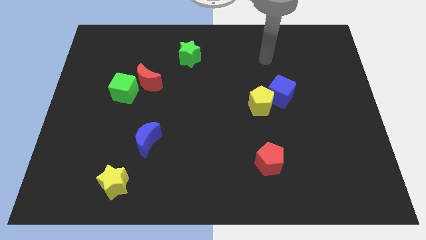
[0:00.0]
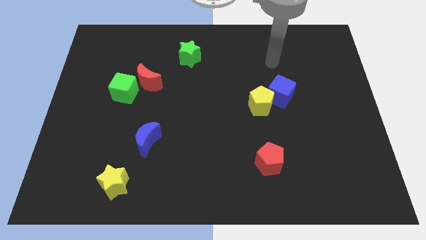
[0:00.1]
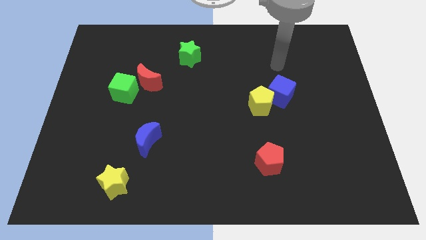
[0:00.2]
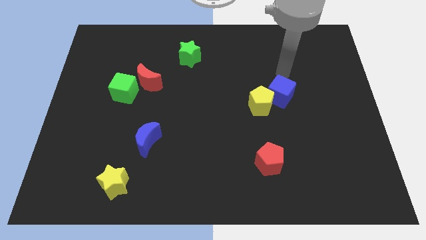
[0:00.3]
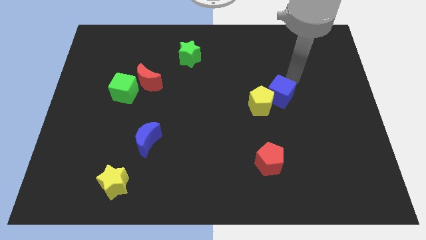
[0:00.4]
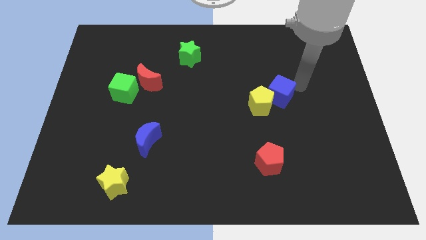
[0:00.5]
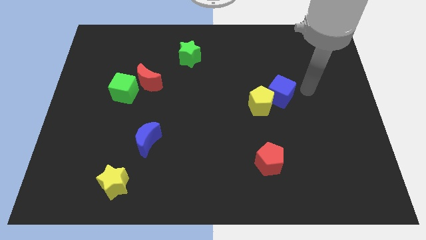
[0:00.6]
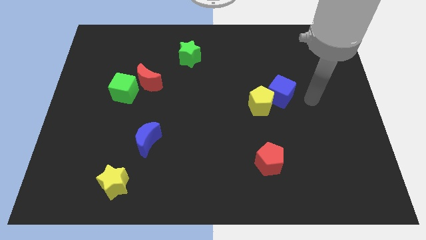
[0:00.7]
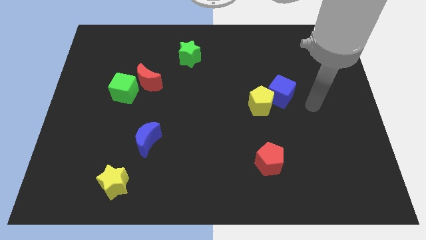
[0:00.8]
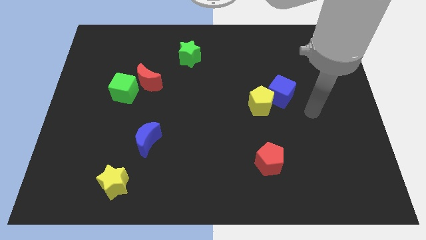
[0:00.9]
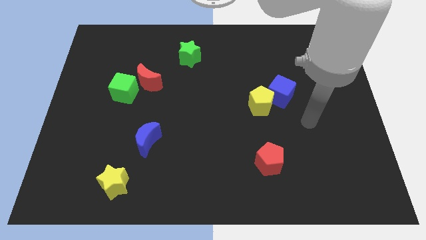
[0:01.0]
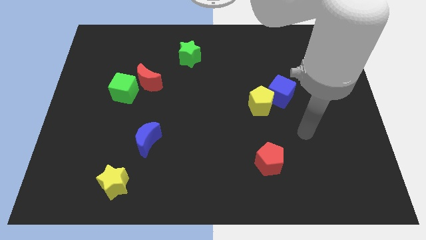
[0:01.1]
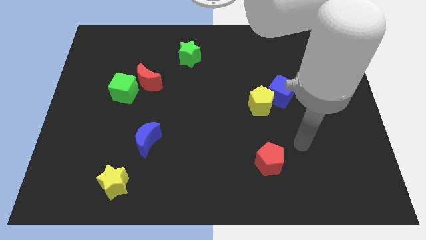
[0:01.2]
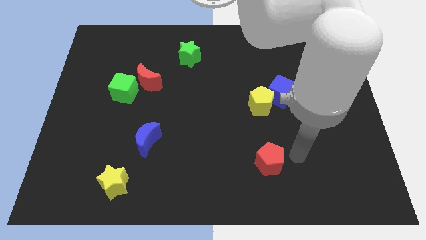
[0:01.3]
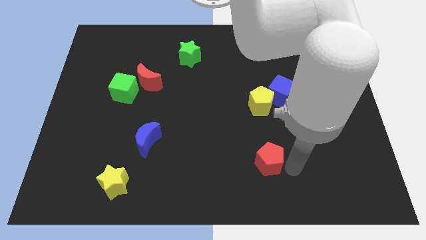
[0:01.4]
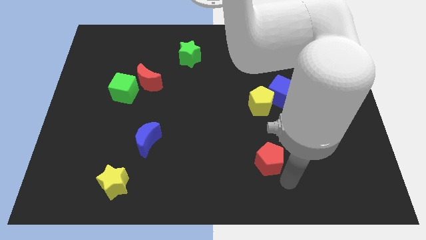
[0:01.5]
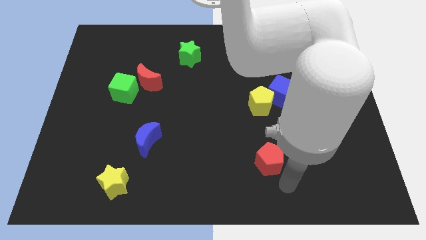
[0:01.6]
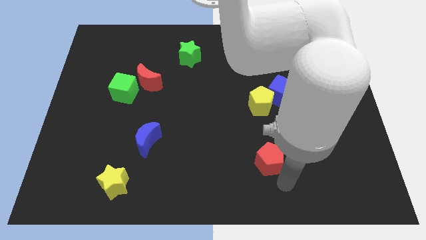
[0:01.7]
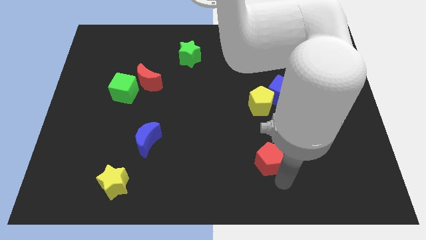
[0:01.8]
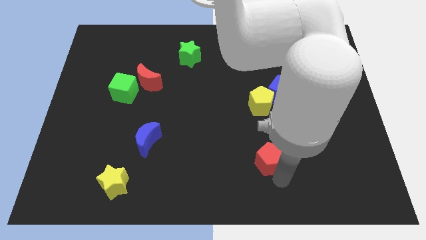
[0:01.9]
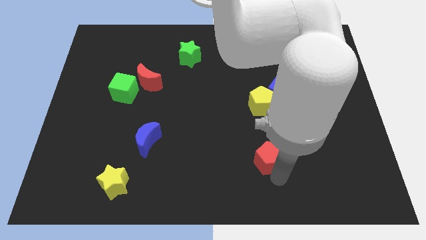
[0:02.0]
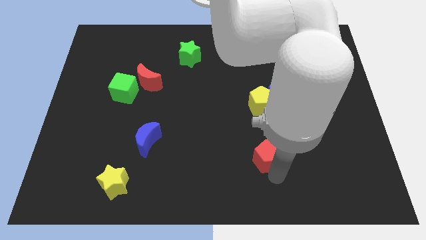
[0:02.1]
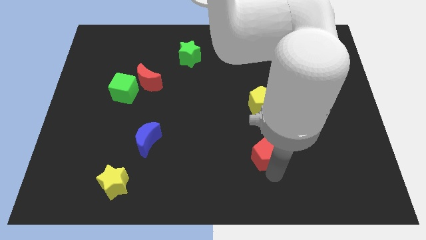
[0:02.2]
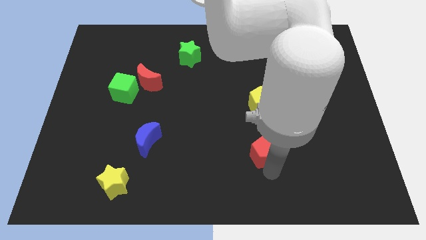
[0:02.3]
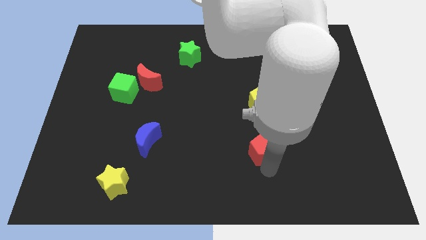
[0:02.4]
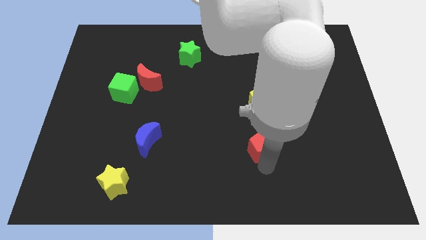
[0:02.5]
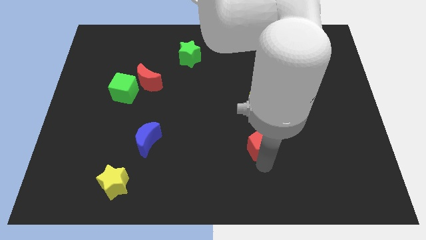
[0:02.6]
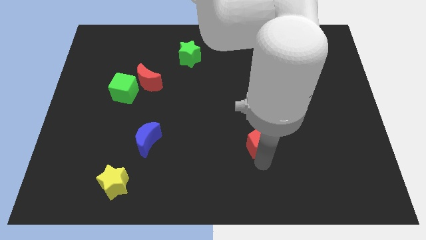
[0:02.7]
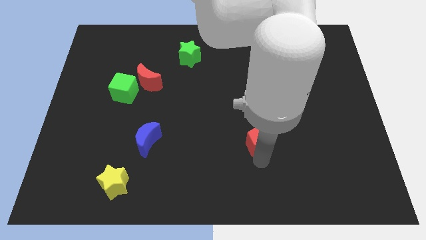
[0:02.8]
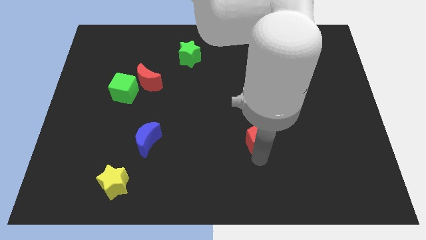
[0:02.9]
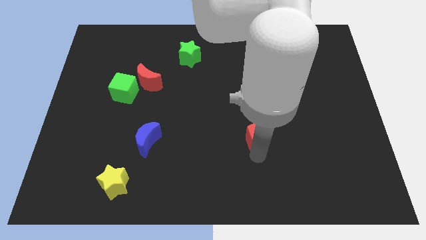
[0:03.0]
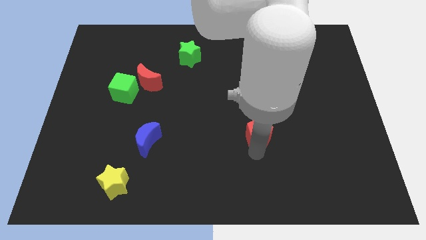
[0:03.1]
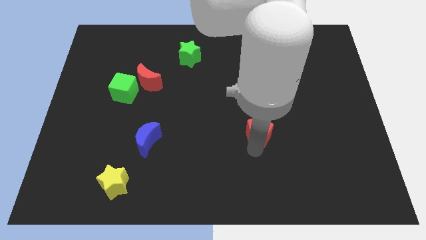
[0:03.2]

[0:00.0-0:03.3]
slightly slide the red pentagon up

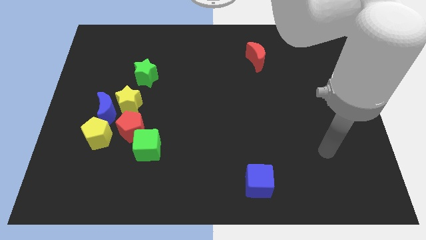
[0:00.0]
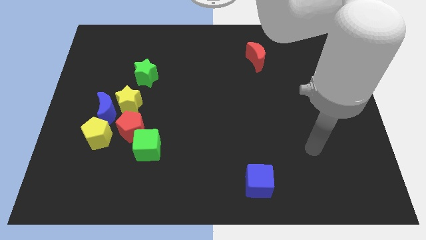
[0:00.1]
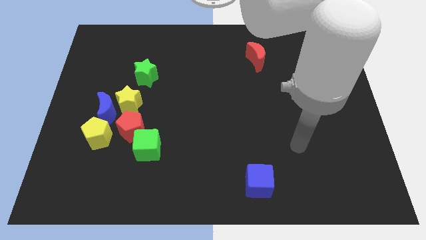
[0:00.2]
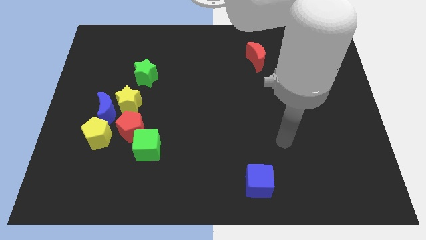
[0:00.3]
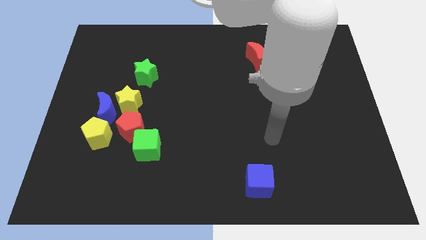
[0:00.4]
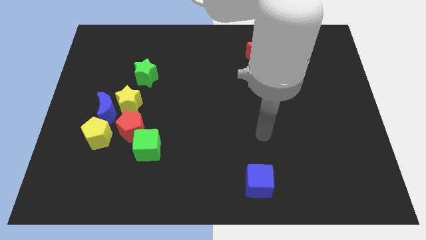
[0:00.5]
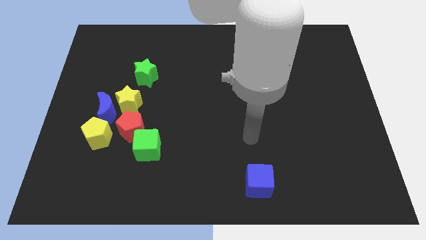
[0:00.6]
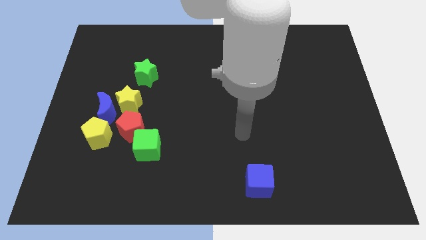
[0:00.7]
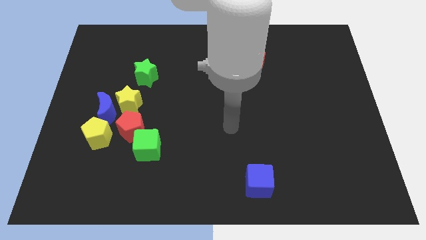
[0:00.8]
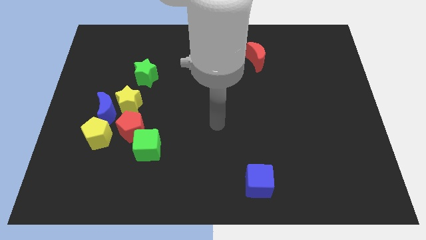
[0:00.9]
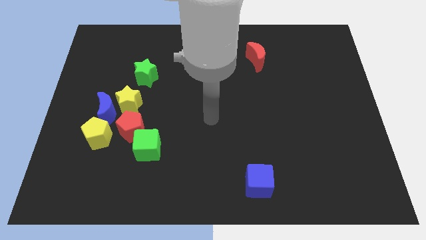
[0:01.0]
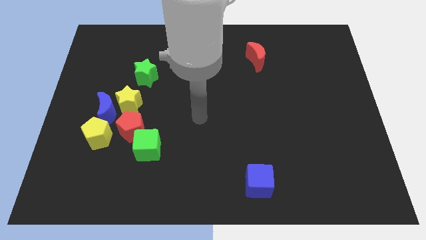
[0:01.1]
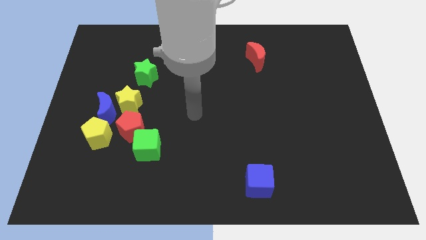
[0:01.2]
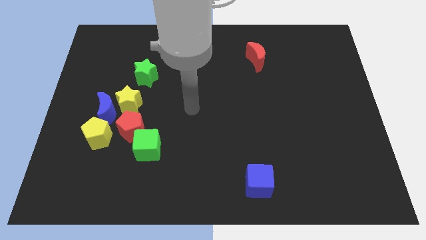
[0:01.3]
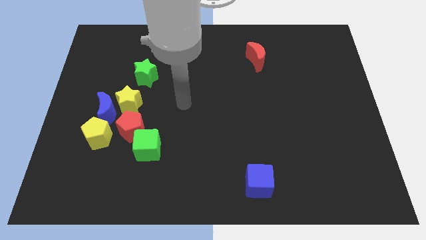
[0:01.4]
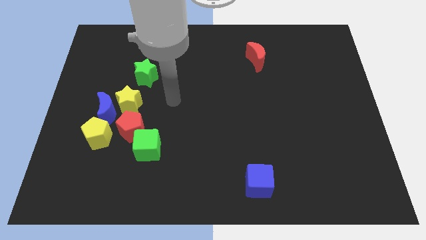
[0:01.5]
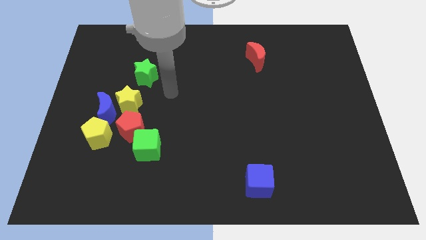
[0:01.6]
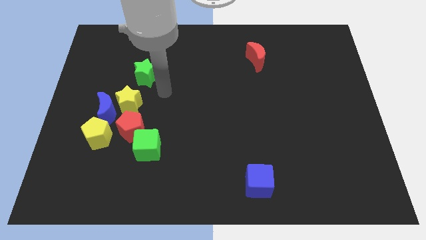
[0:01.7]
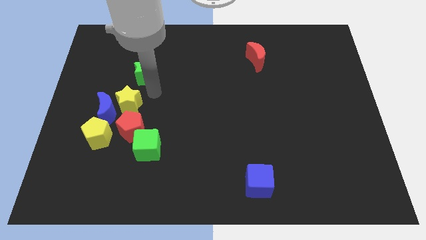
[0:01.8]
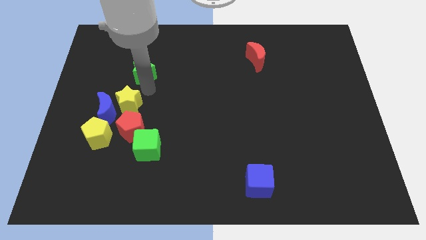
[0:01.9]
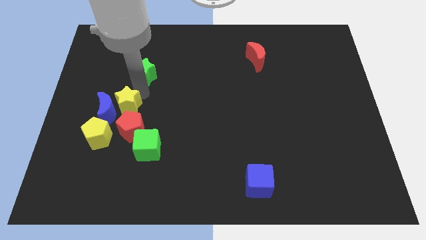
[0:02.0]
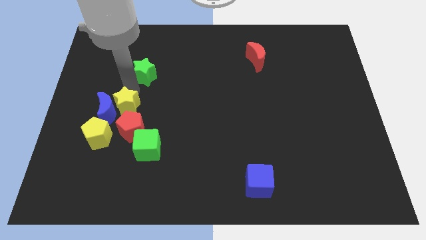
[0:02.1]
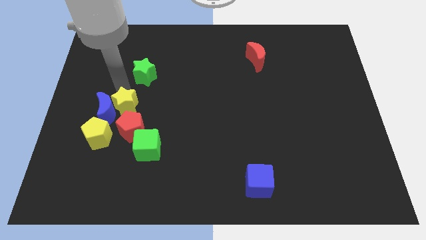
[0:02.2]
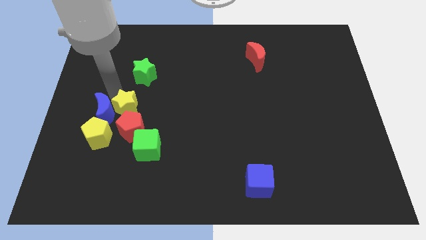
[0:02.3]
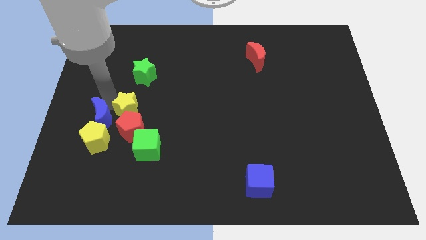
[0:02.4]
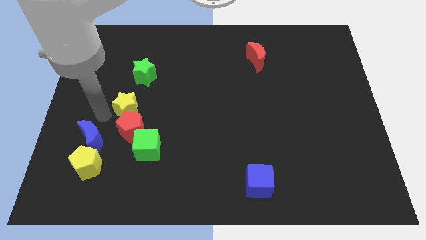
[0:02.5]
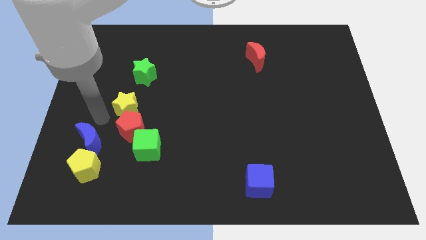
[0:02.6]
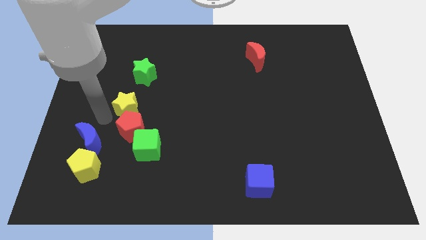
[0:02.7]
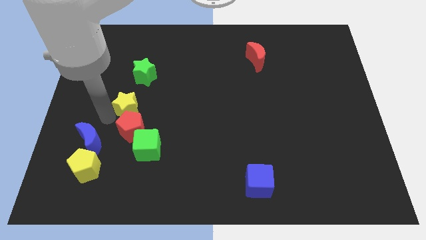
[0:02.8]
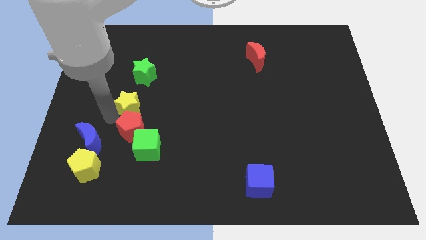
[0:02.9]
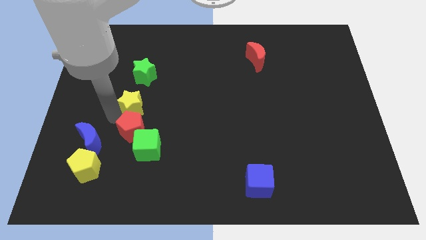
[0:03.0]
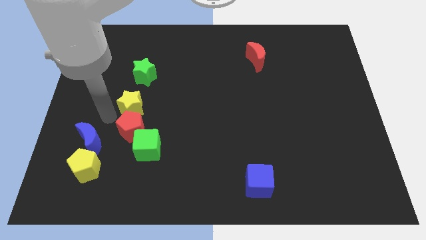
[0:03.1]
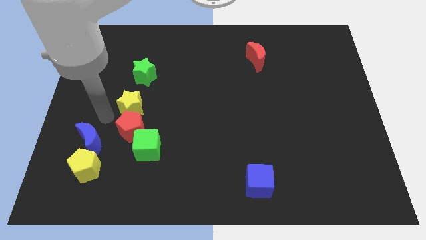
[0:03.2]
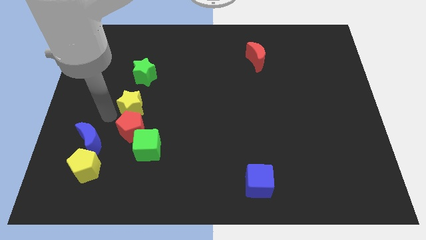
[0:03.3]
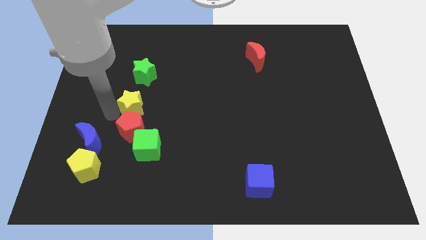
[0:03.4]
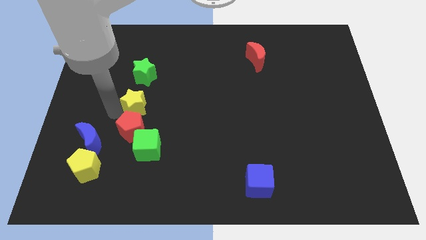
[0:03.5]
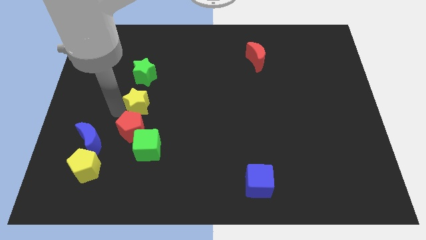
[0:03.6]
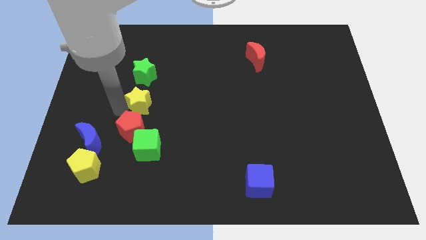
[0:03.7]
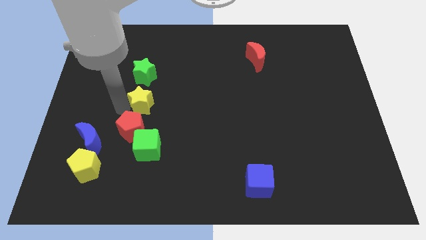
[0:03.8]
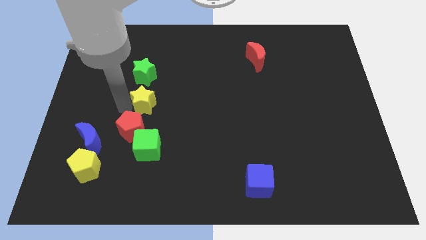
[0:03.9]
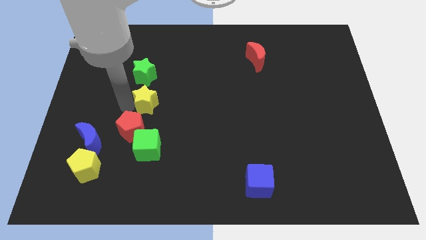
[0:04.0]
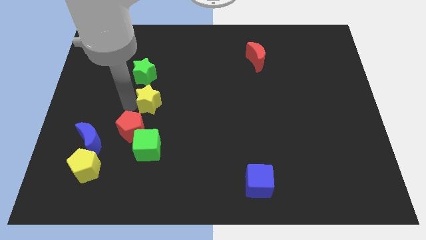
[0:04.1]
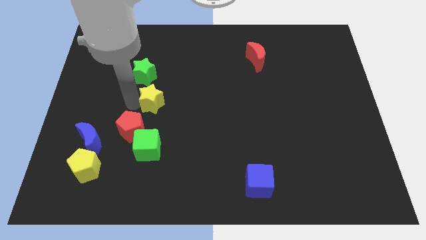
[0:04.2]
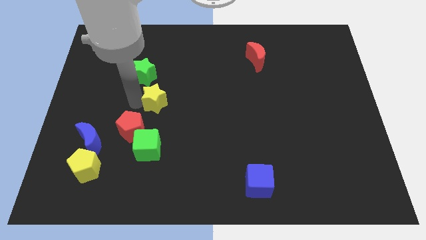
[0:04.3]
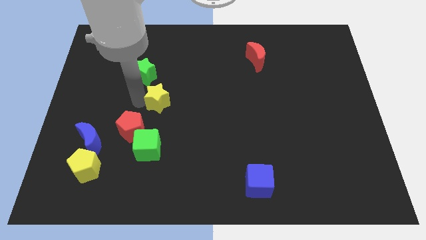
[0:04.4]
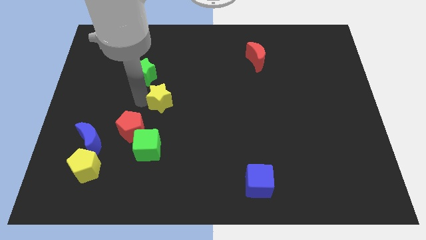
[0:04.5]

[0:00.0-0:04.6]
slightly move the yellow star to the right
